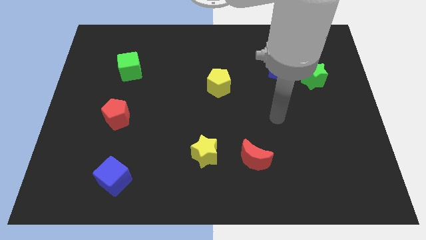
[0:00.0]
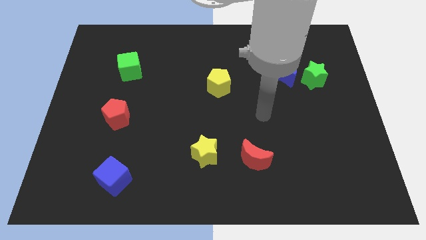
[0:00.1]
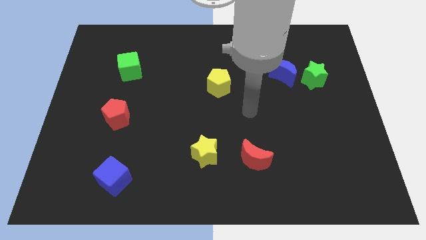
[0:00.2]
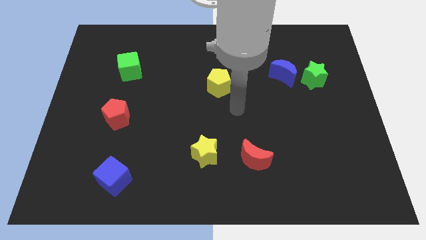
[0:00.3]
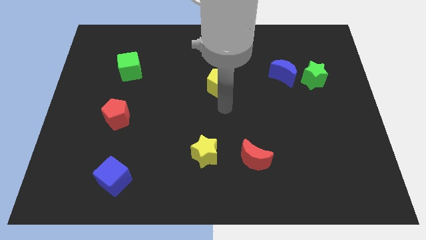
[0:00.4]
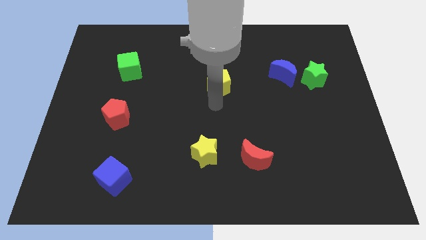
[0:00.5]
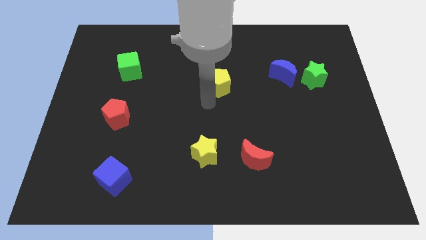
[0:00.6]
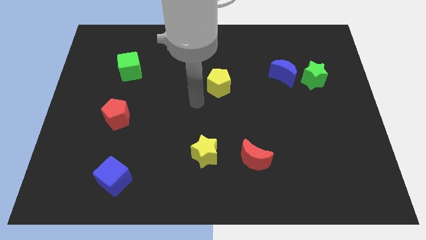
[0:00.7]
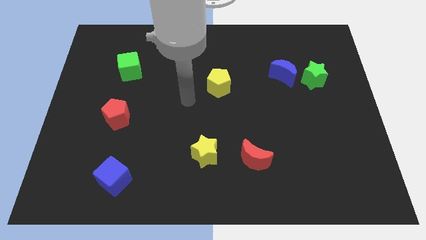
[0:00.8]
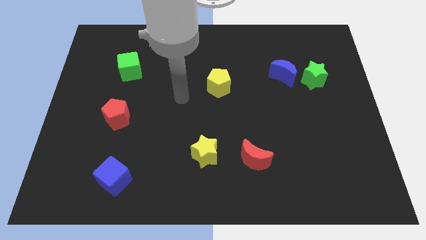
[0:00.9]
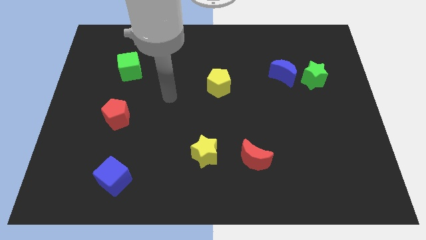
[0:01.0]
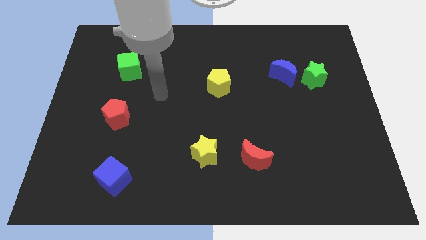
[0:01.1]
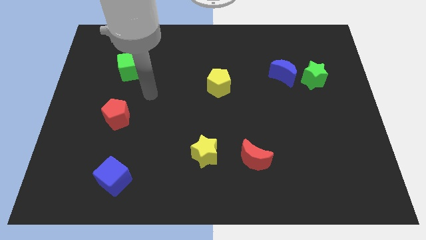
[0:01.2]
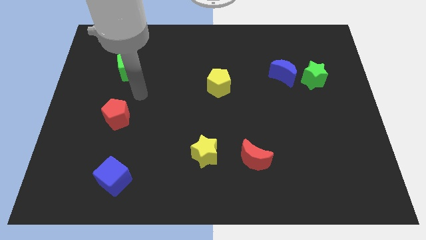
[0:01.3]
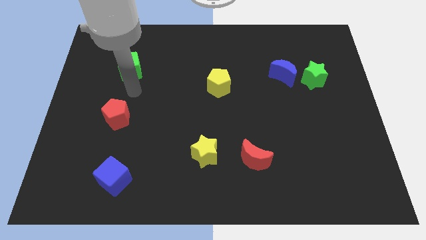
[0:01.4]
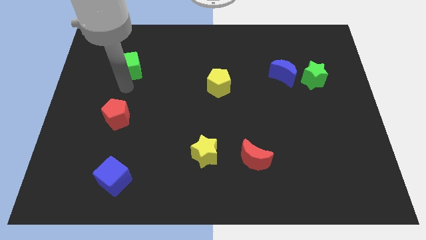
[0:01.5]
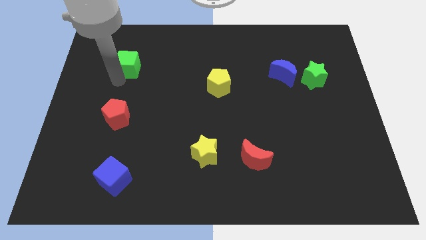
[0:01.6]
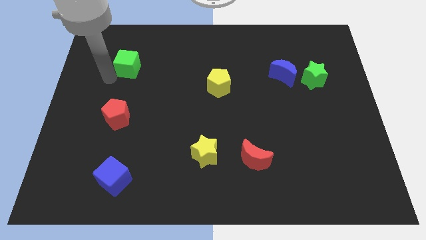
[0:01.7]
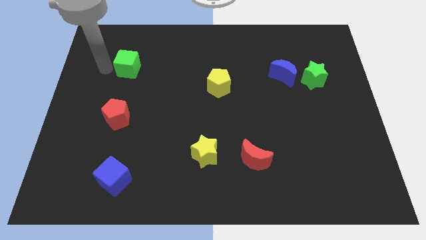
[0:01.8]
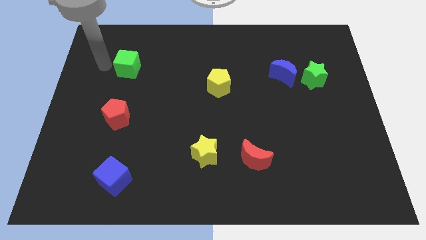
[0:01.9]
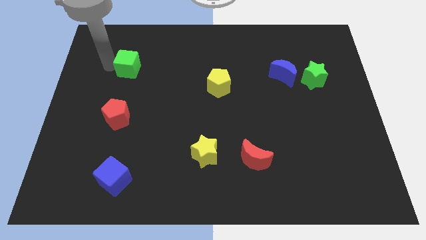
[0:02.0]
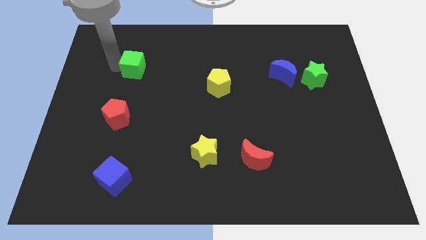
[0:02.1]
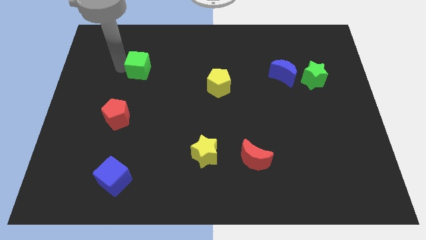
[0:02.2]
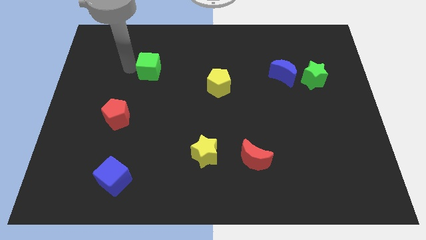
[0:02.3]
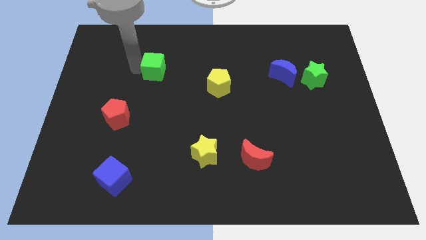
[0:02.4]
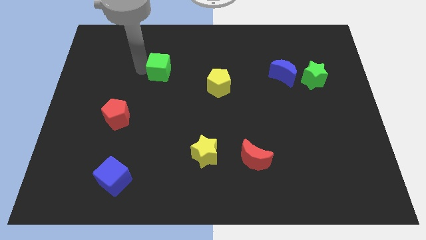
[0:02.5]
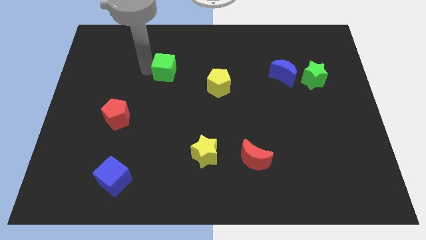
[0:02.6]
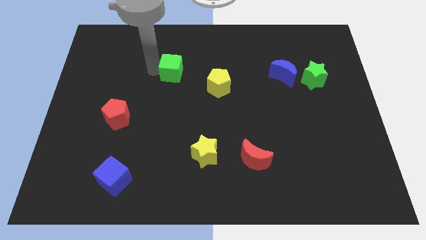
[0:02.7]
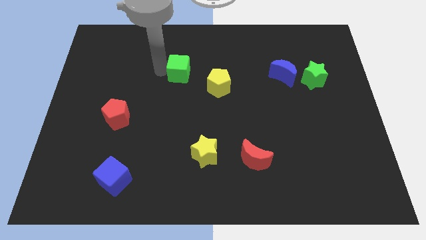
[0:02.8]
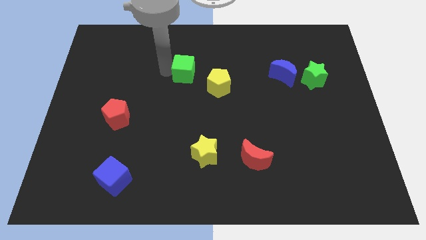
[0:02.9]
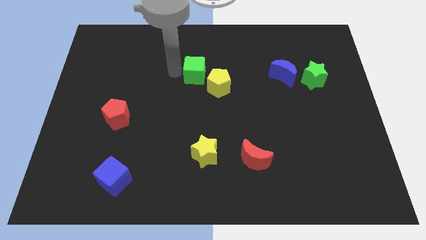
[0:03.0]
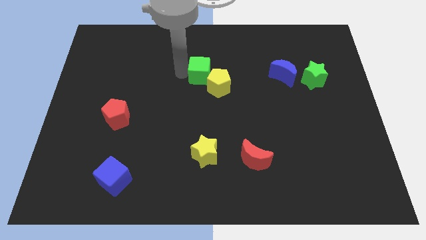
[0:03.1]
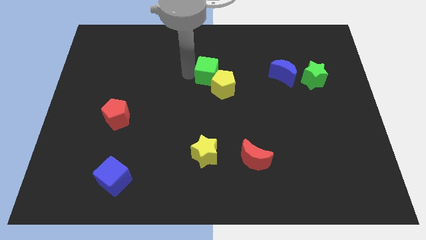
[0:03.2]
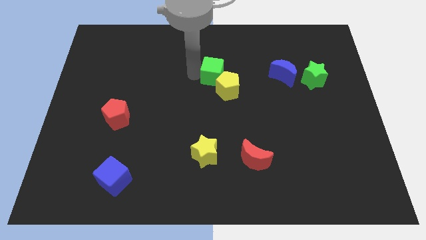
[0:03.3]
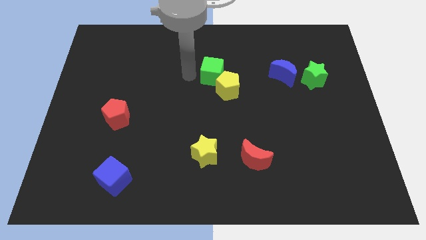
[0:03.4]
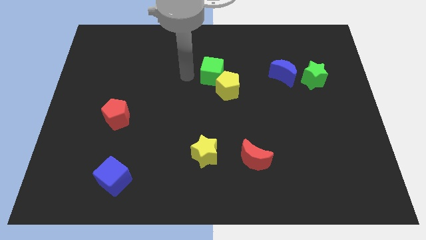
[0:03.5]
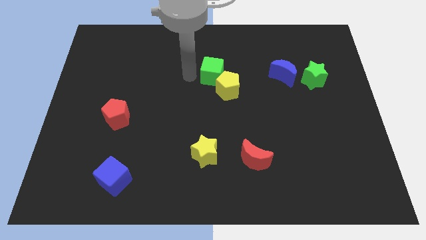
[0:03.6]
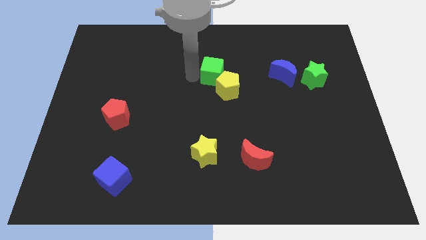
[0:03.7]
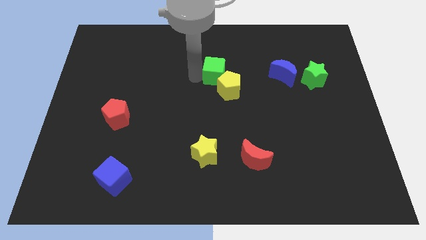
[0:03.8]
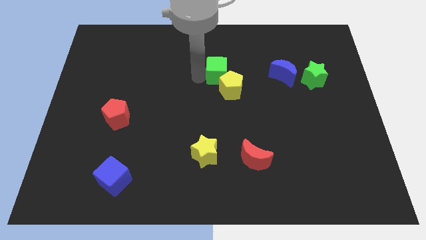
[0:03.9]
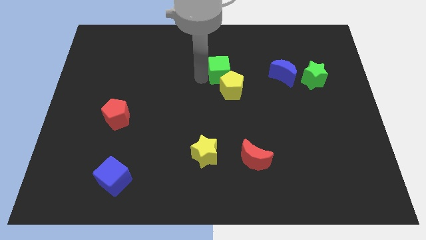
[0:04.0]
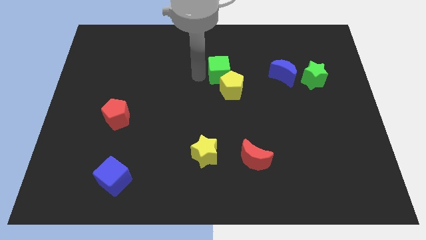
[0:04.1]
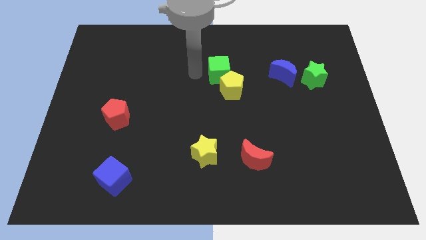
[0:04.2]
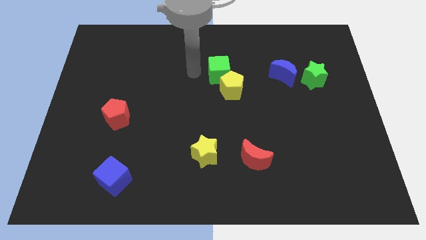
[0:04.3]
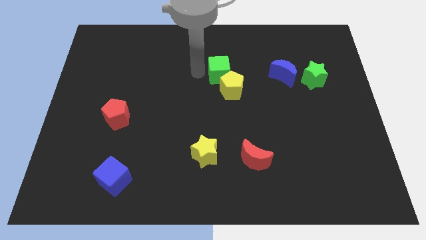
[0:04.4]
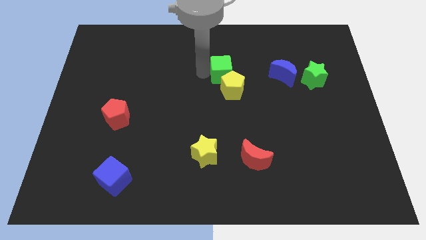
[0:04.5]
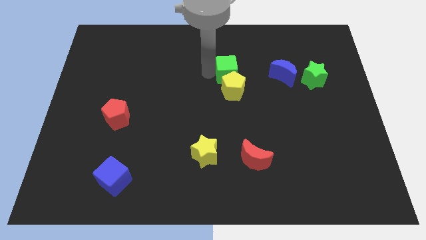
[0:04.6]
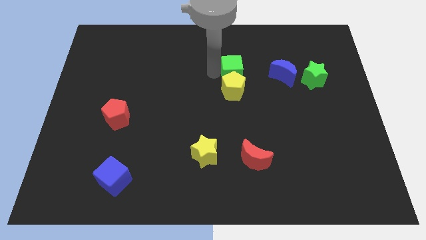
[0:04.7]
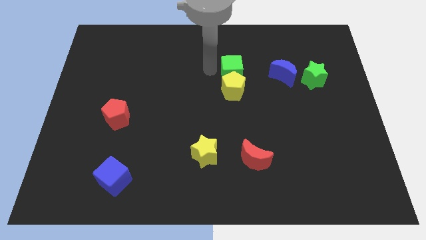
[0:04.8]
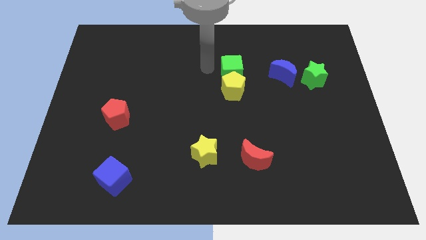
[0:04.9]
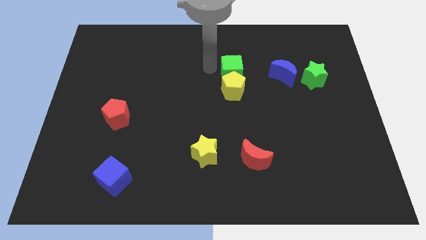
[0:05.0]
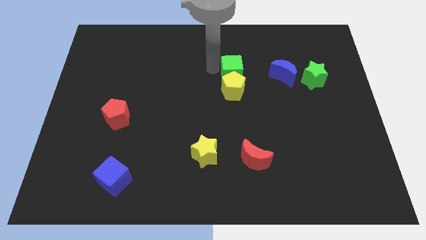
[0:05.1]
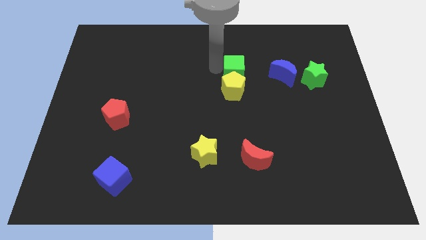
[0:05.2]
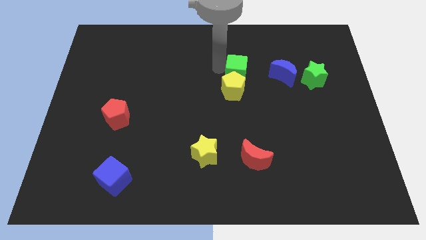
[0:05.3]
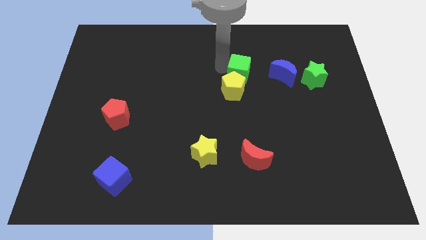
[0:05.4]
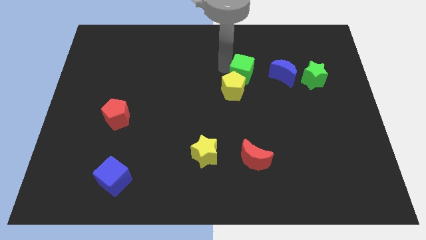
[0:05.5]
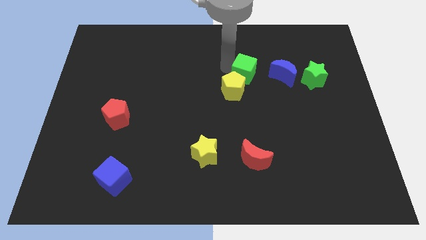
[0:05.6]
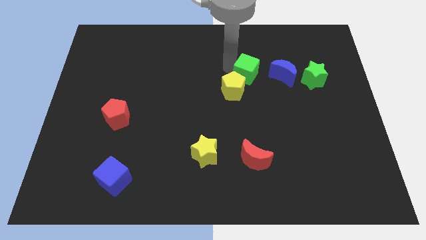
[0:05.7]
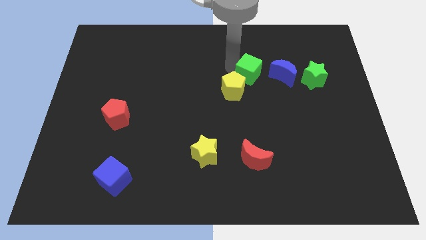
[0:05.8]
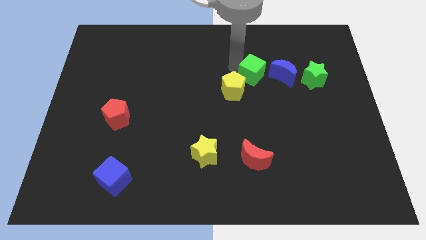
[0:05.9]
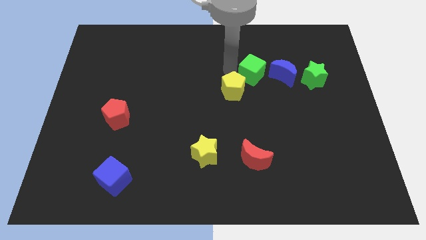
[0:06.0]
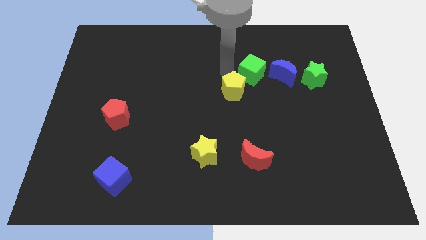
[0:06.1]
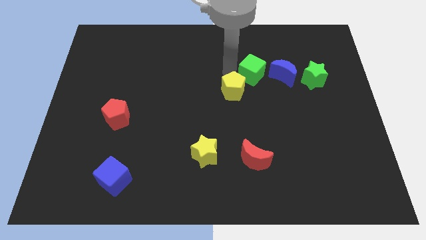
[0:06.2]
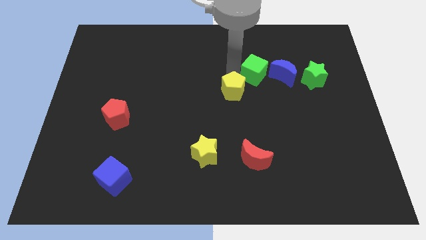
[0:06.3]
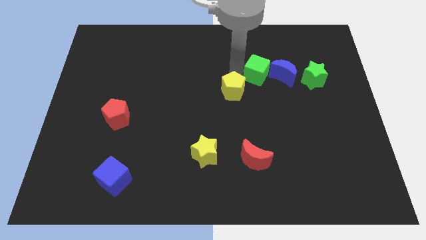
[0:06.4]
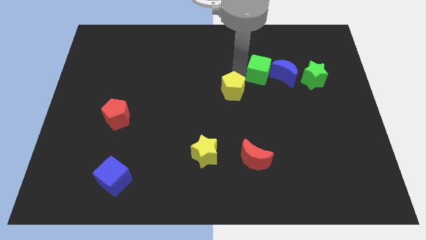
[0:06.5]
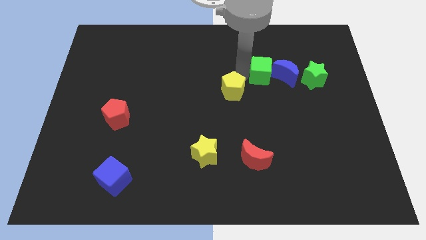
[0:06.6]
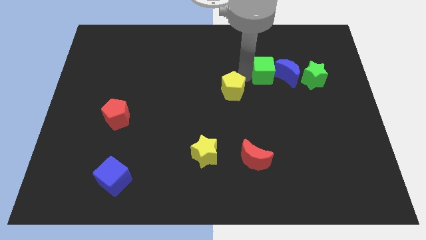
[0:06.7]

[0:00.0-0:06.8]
move the green cube next to the blue moon

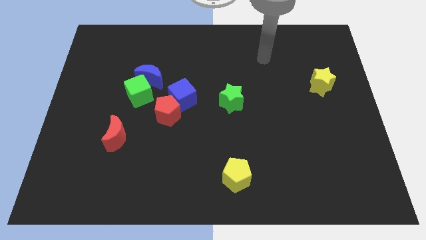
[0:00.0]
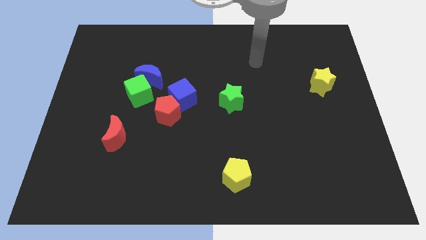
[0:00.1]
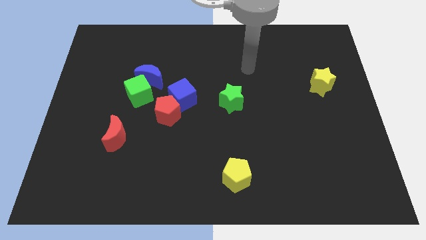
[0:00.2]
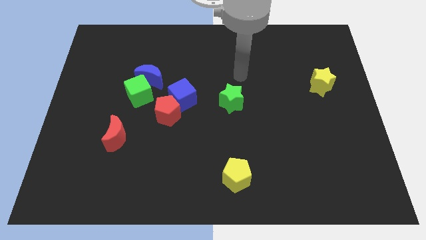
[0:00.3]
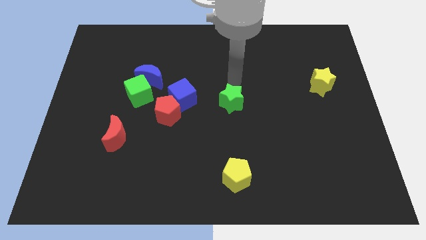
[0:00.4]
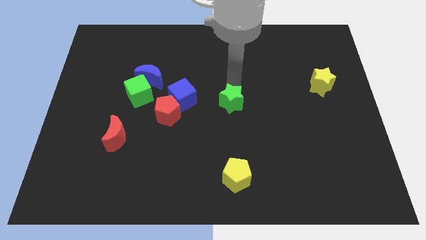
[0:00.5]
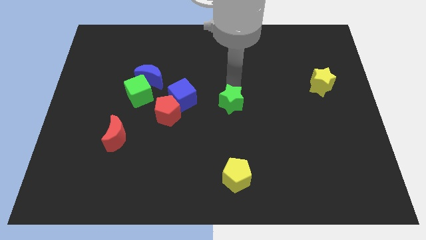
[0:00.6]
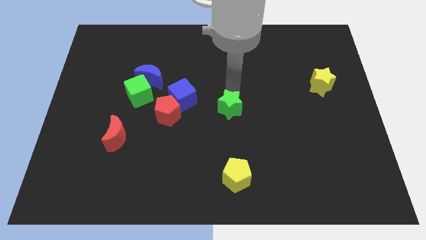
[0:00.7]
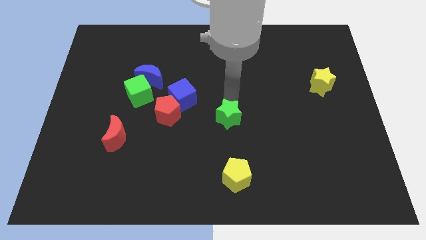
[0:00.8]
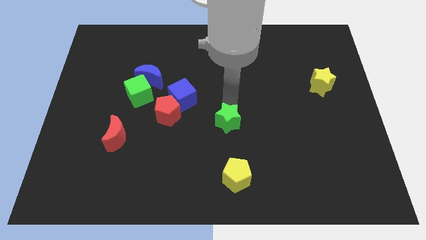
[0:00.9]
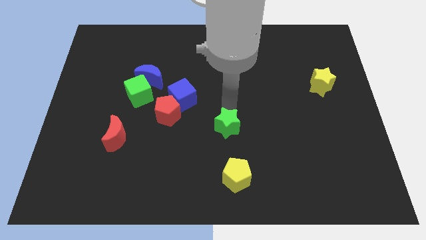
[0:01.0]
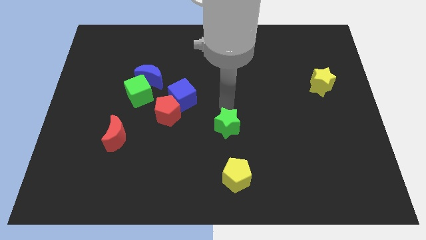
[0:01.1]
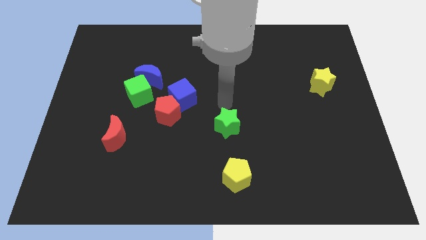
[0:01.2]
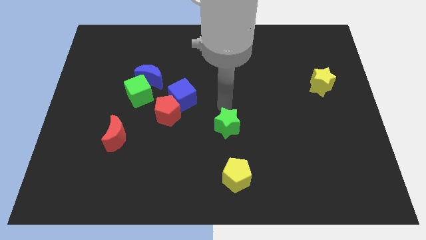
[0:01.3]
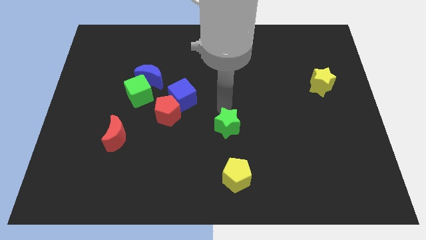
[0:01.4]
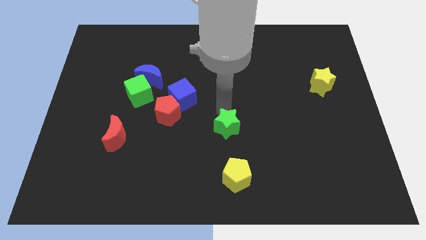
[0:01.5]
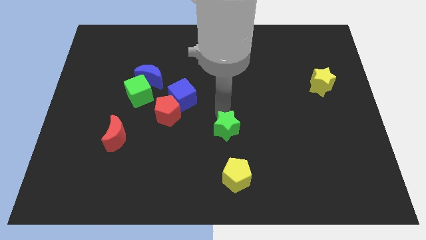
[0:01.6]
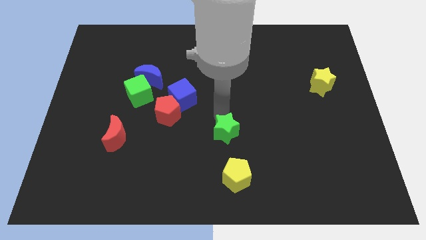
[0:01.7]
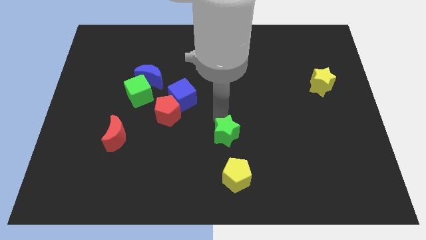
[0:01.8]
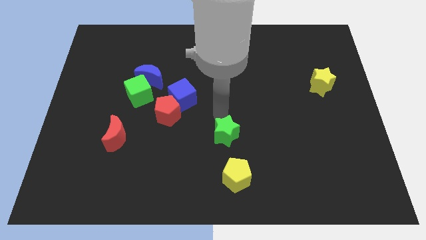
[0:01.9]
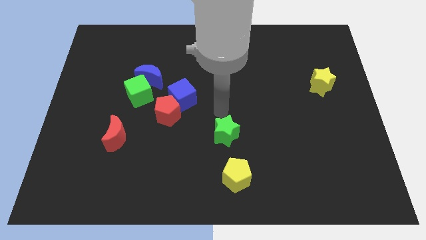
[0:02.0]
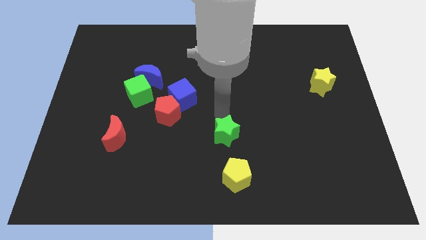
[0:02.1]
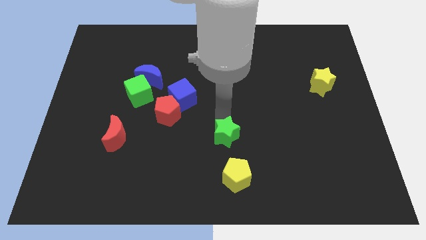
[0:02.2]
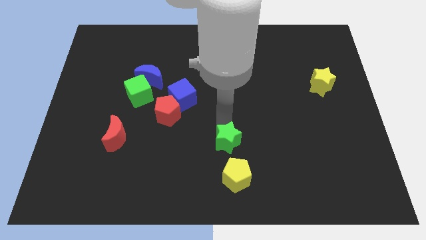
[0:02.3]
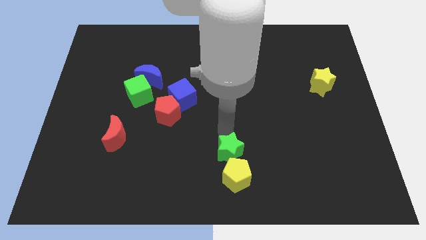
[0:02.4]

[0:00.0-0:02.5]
move the green star towards the yellow pentagon
